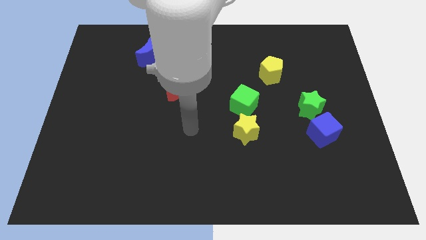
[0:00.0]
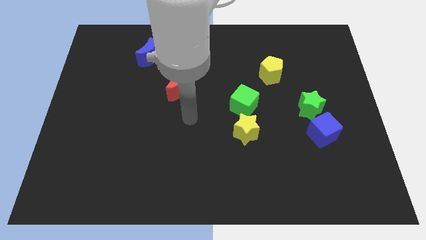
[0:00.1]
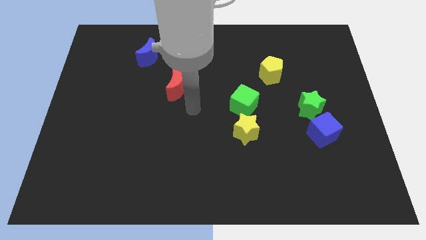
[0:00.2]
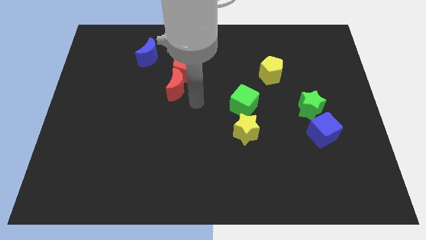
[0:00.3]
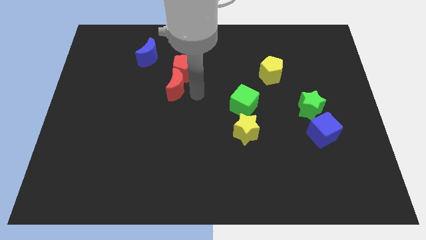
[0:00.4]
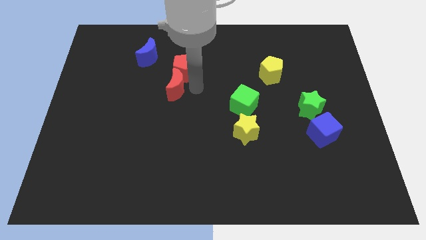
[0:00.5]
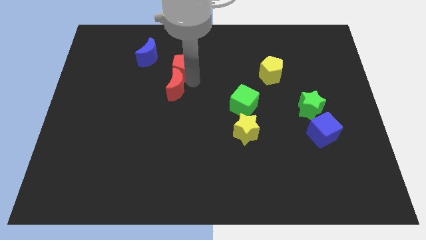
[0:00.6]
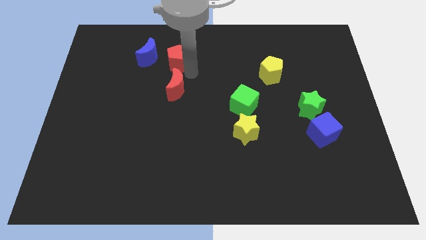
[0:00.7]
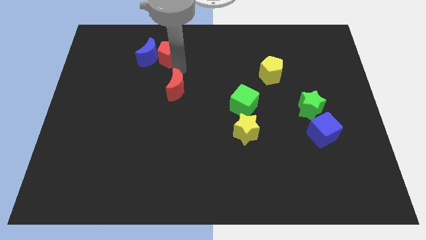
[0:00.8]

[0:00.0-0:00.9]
move the red moon away from the red pentagon

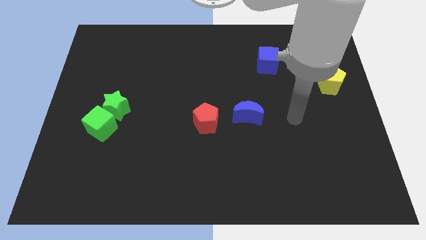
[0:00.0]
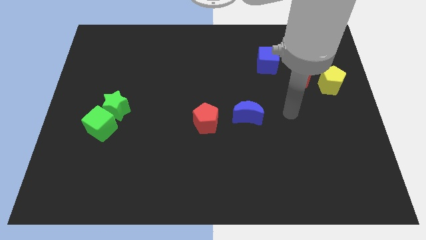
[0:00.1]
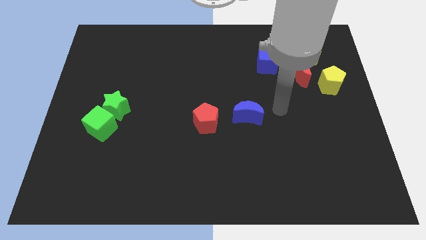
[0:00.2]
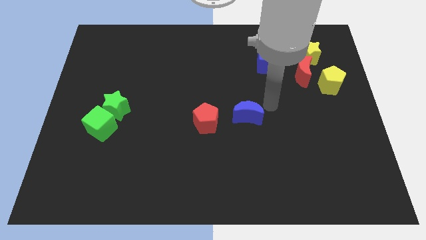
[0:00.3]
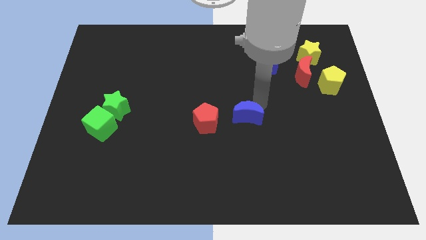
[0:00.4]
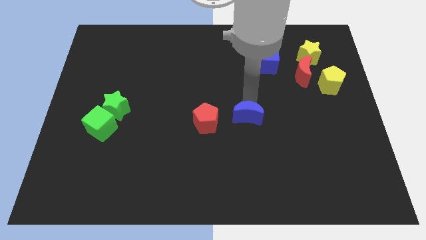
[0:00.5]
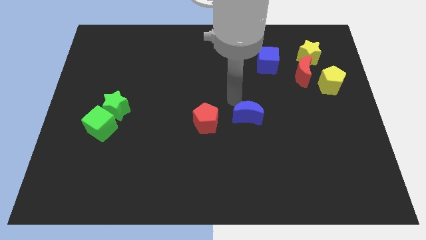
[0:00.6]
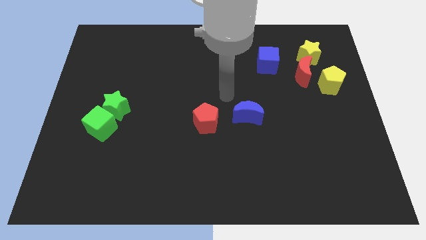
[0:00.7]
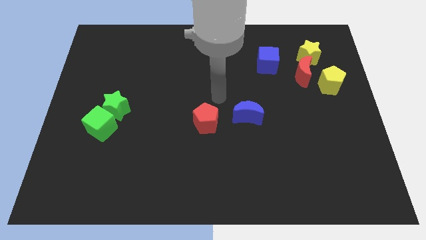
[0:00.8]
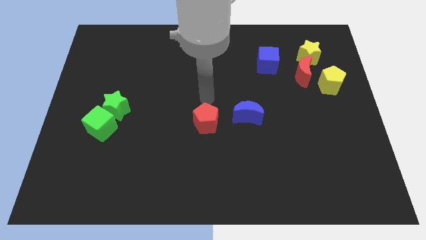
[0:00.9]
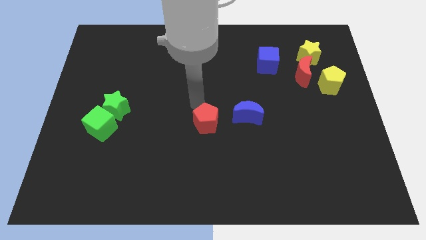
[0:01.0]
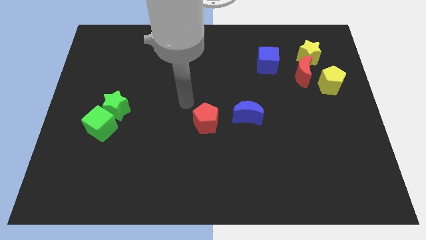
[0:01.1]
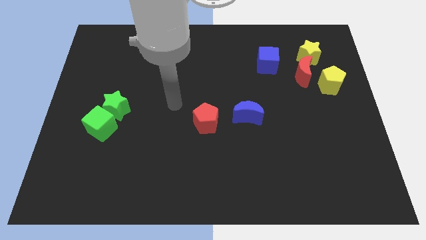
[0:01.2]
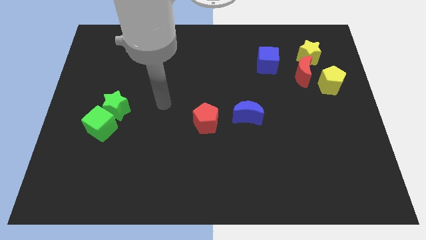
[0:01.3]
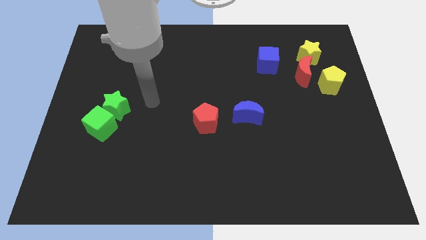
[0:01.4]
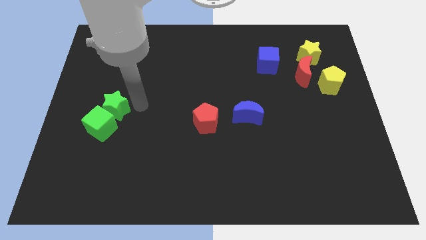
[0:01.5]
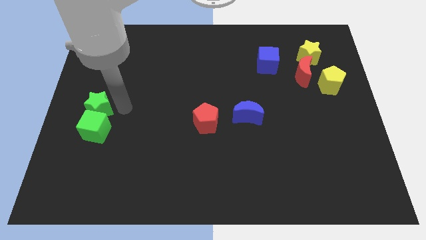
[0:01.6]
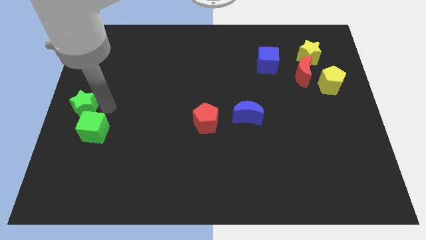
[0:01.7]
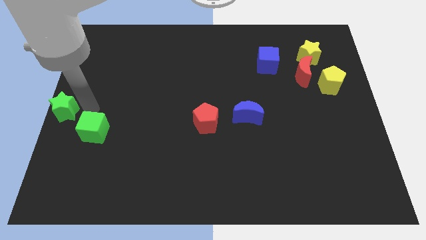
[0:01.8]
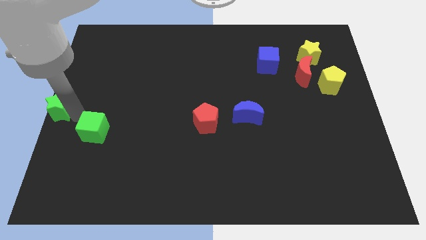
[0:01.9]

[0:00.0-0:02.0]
pull the green cube apart from the green star

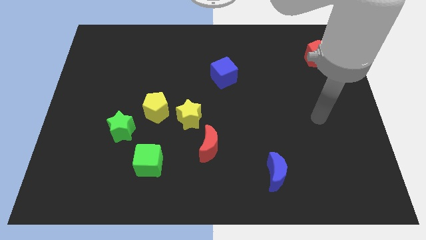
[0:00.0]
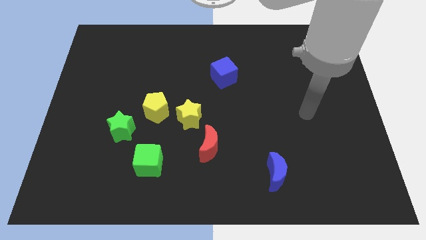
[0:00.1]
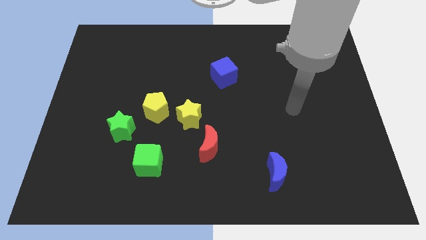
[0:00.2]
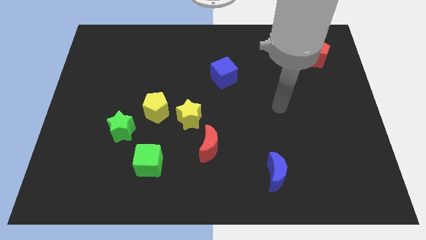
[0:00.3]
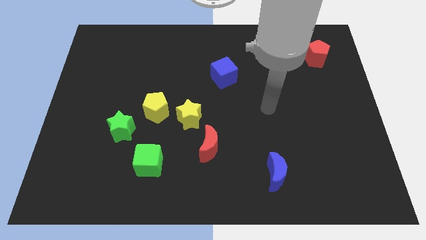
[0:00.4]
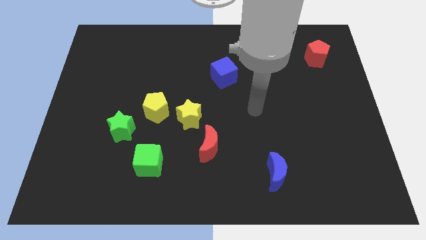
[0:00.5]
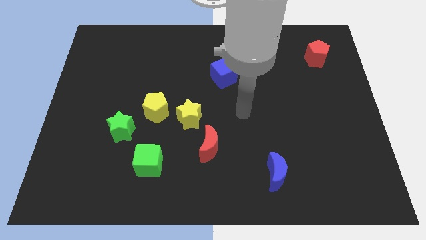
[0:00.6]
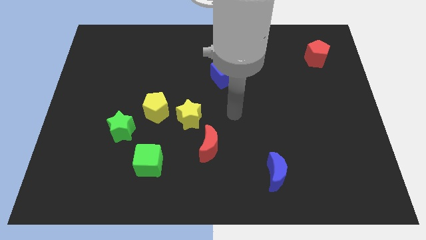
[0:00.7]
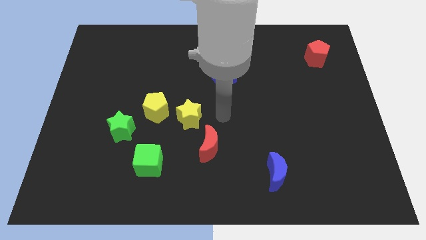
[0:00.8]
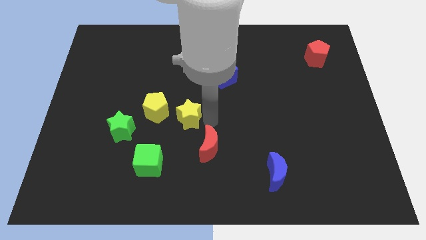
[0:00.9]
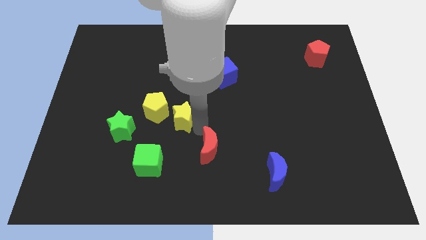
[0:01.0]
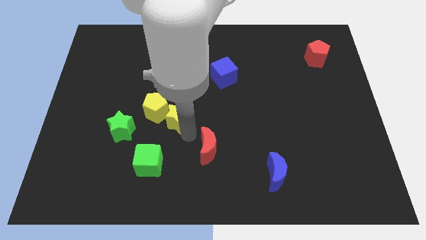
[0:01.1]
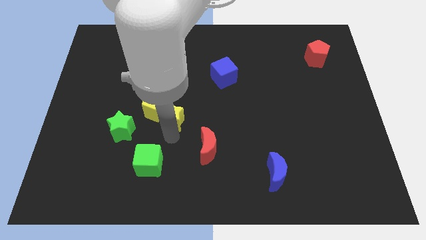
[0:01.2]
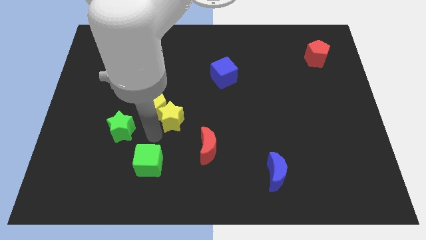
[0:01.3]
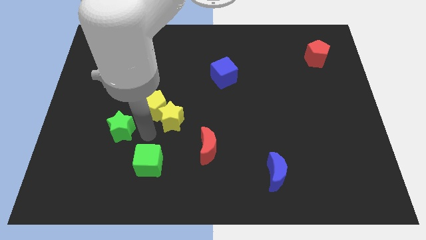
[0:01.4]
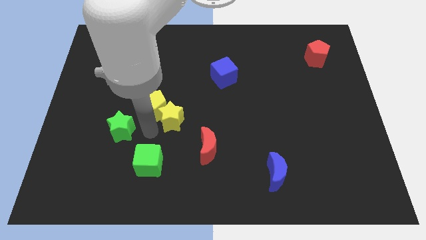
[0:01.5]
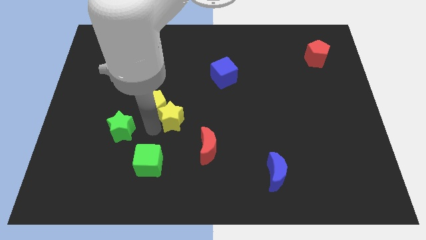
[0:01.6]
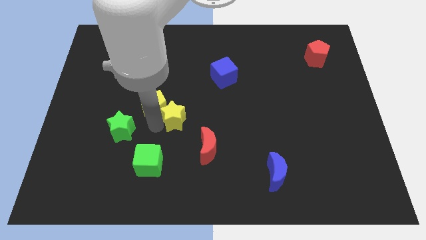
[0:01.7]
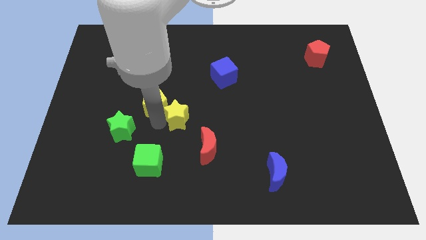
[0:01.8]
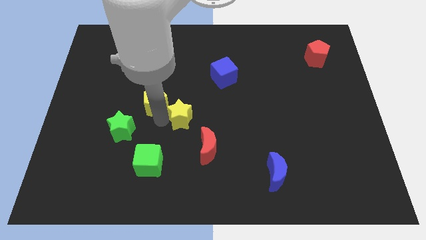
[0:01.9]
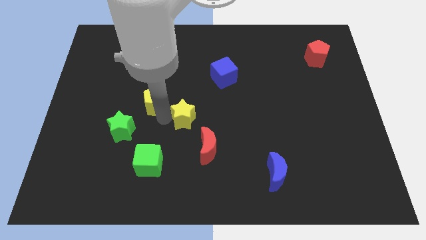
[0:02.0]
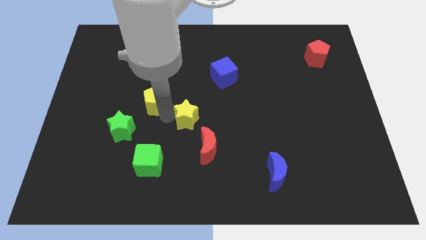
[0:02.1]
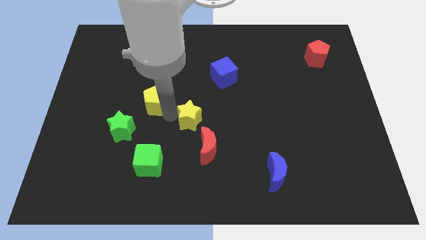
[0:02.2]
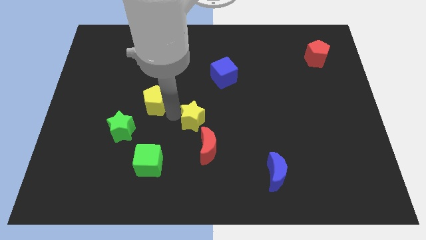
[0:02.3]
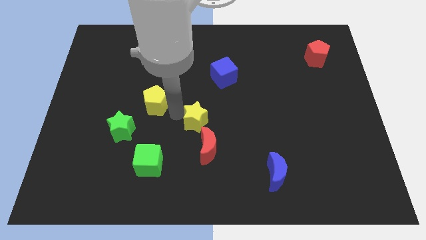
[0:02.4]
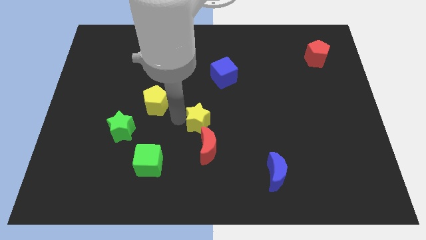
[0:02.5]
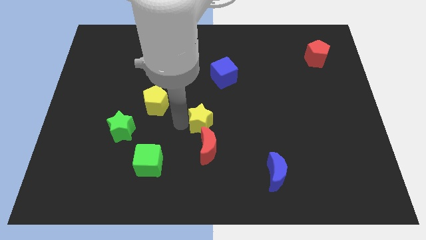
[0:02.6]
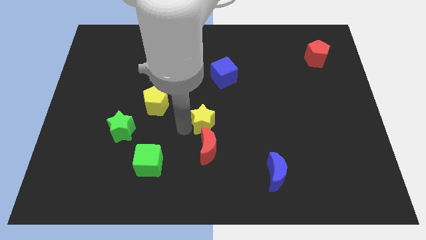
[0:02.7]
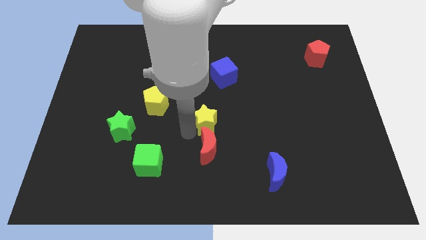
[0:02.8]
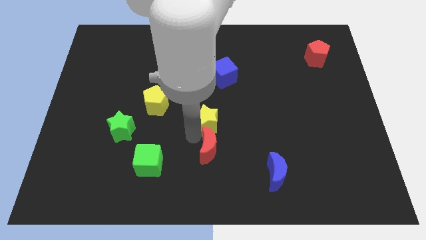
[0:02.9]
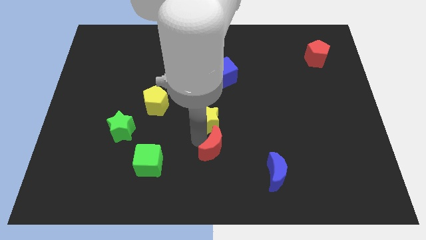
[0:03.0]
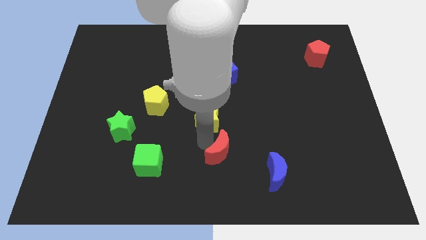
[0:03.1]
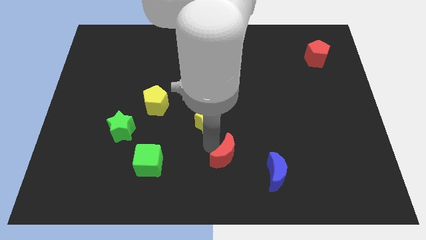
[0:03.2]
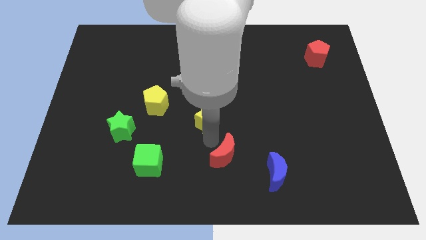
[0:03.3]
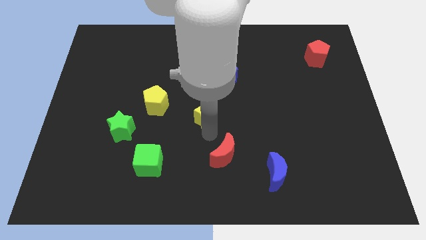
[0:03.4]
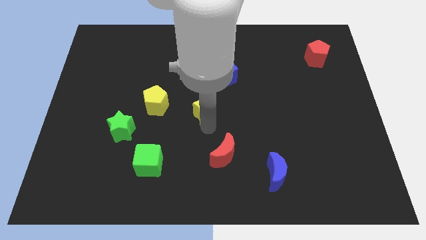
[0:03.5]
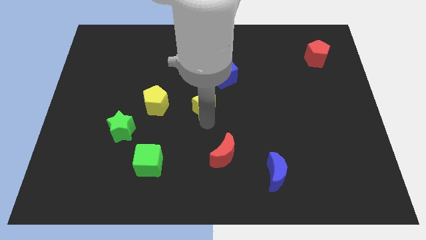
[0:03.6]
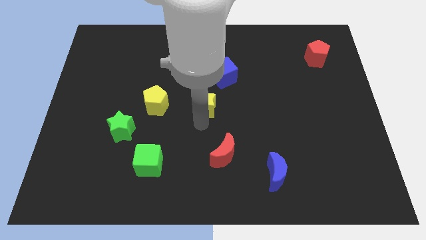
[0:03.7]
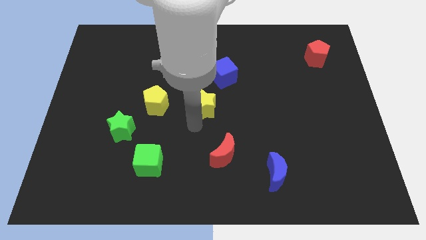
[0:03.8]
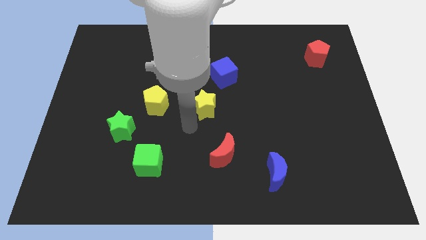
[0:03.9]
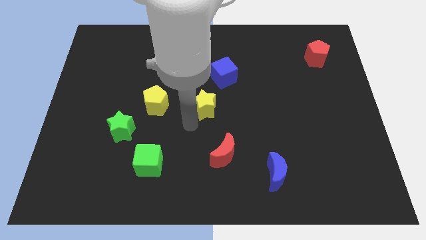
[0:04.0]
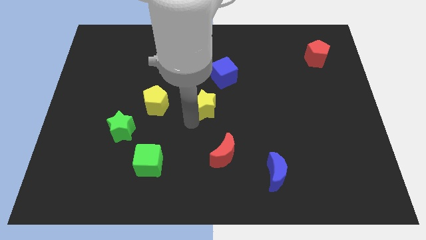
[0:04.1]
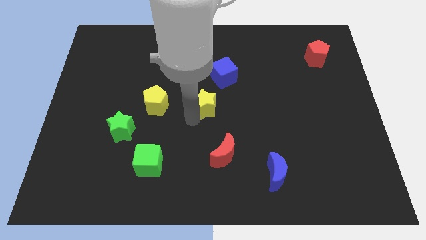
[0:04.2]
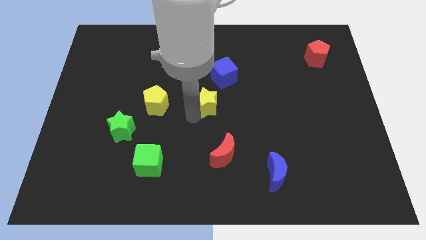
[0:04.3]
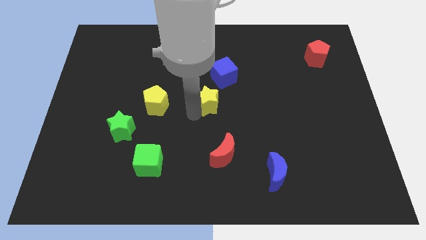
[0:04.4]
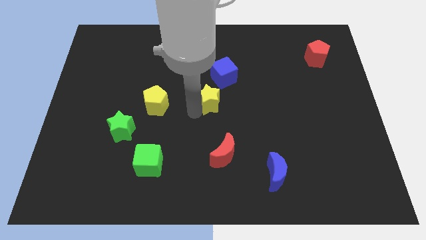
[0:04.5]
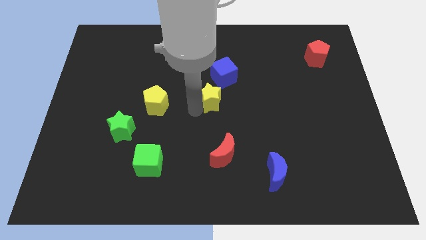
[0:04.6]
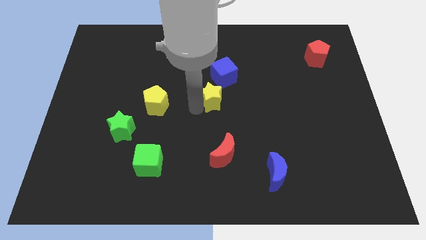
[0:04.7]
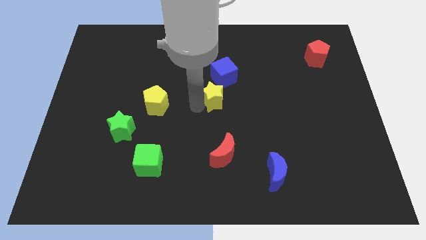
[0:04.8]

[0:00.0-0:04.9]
pull the yellow star apart from the yellow pentagon and red moon

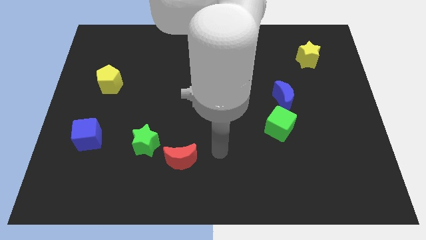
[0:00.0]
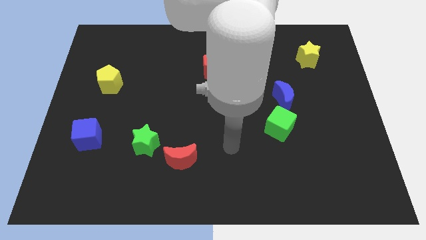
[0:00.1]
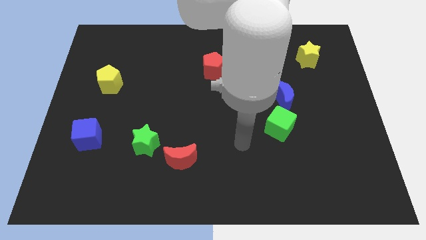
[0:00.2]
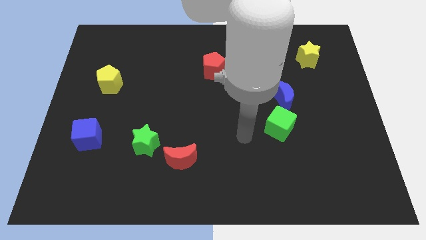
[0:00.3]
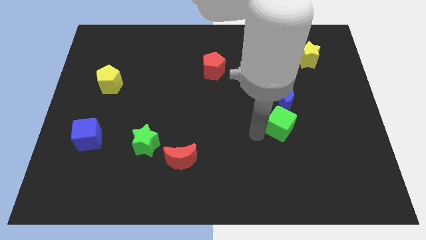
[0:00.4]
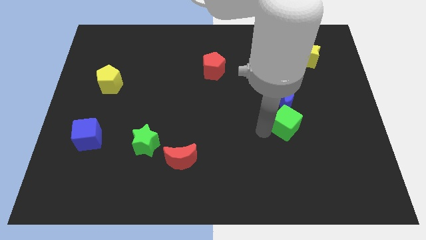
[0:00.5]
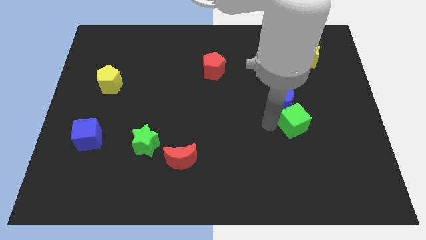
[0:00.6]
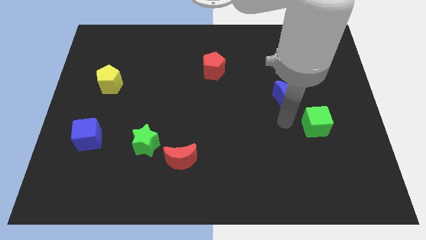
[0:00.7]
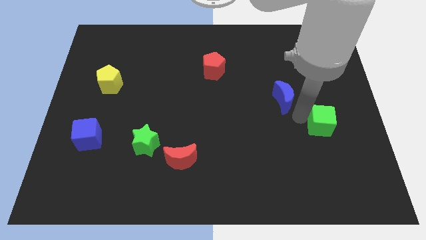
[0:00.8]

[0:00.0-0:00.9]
move the blue moon away from the green cube

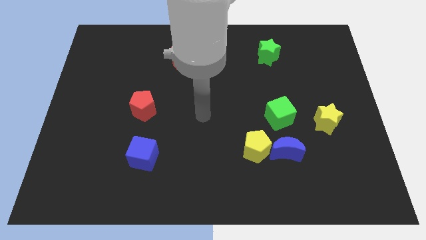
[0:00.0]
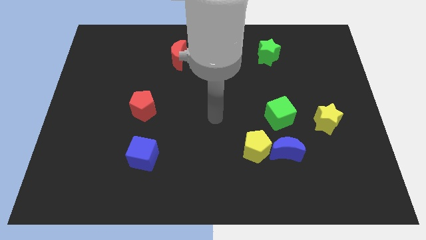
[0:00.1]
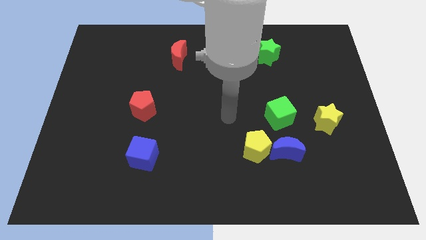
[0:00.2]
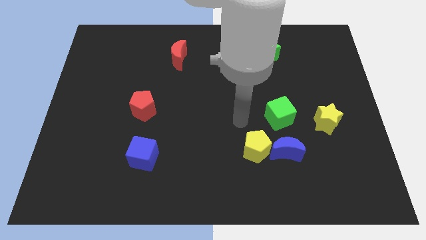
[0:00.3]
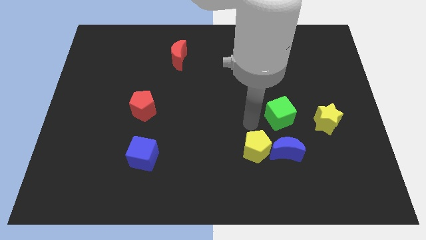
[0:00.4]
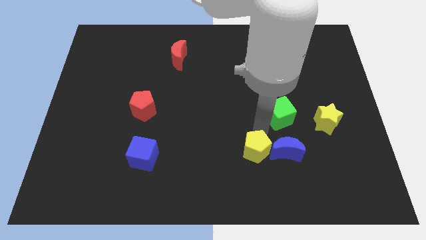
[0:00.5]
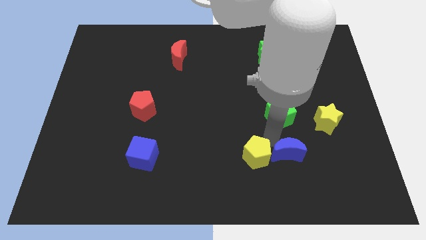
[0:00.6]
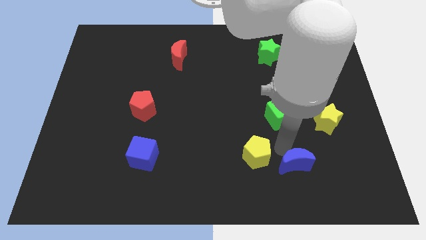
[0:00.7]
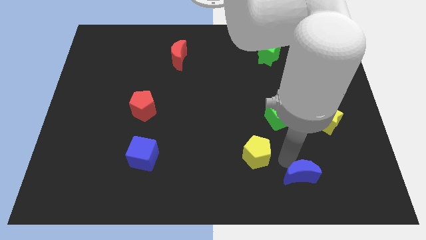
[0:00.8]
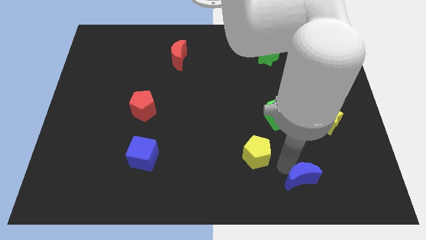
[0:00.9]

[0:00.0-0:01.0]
pull the yellow pentagon apart from the blue moon
